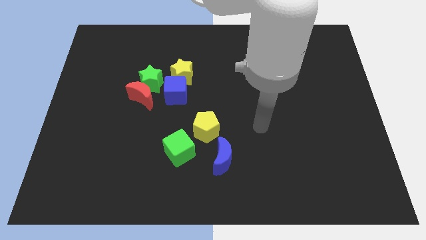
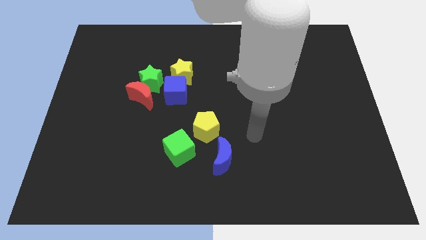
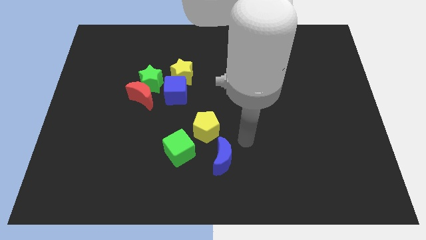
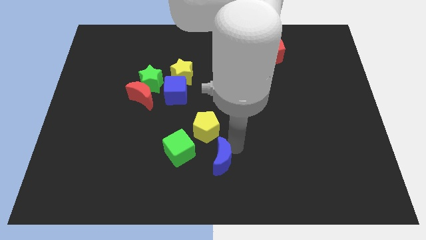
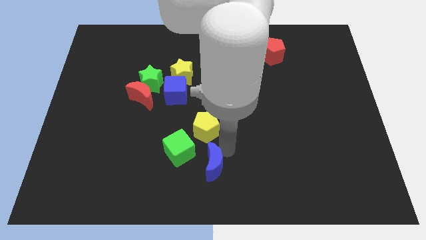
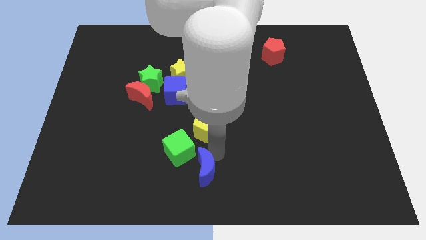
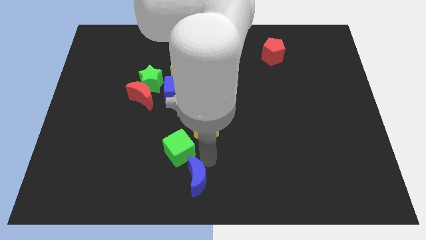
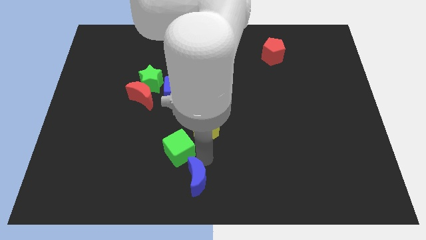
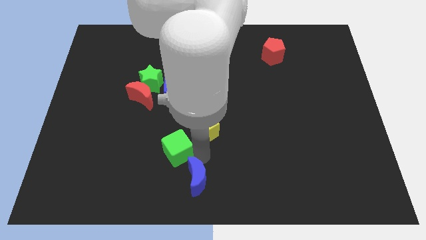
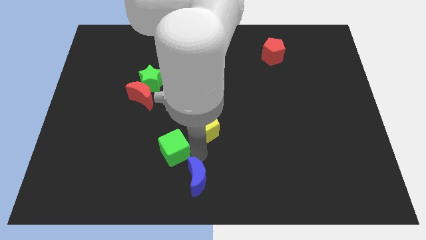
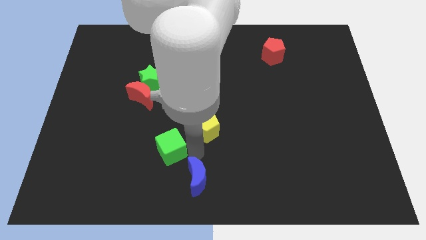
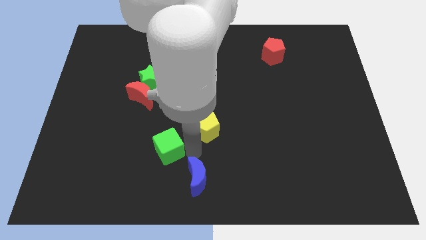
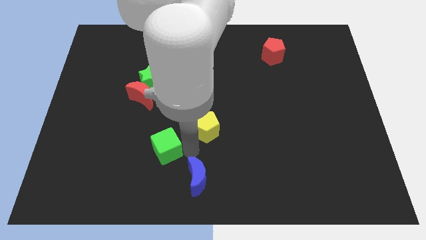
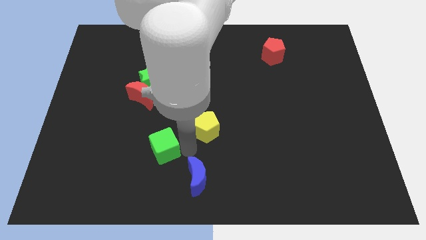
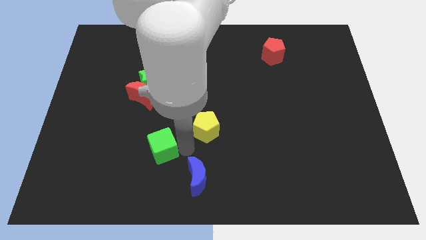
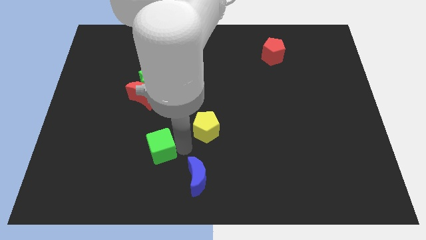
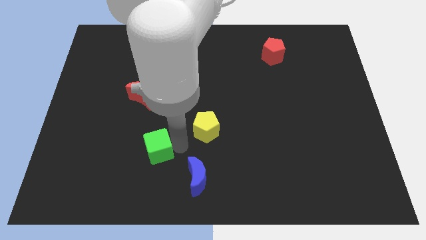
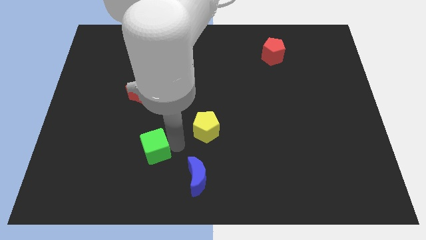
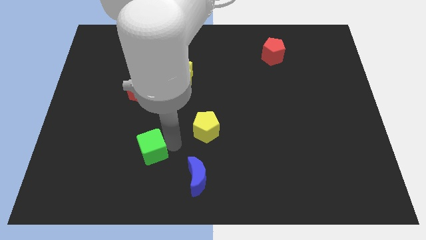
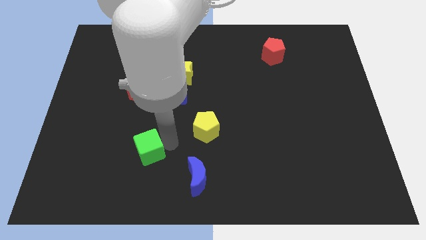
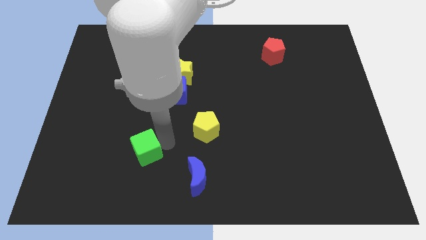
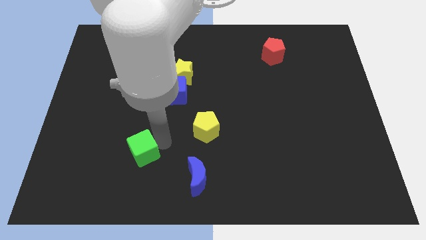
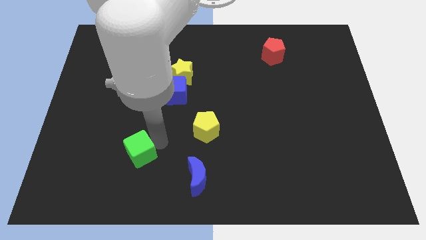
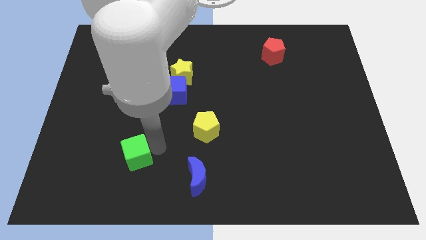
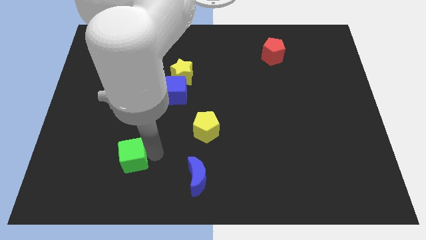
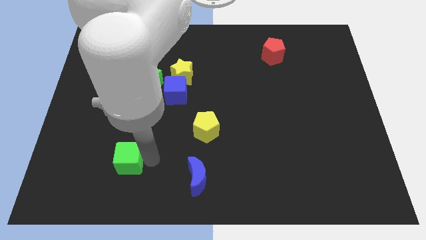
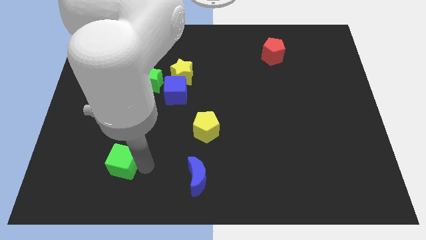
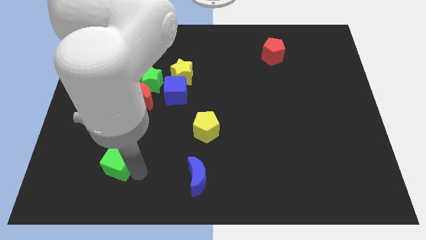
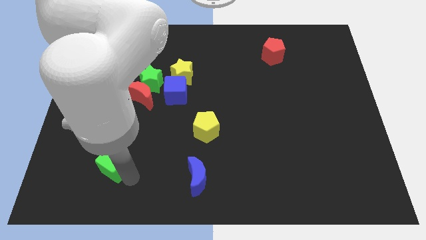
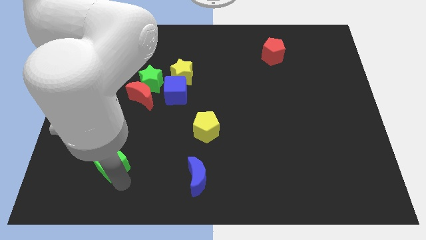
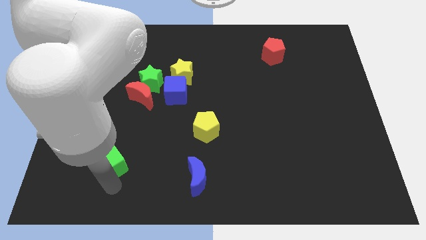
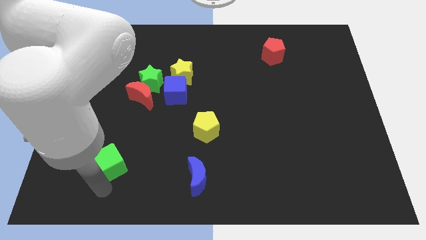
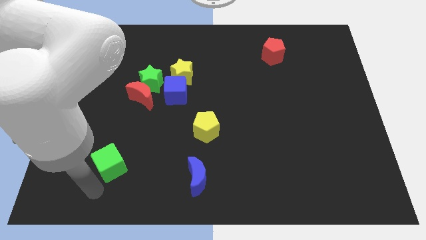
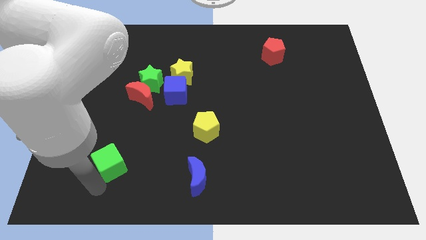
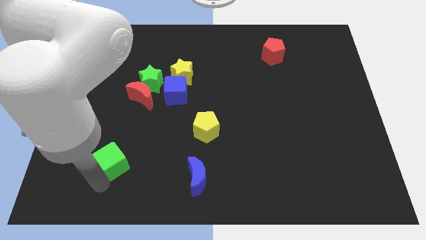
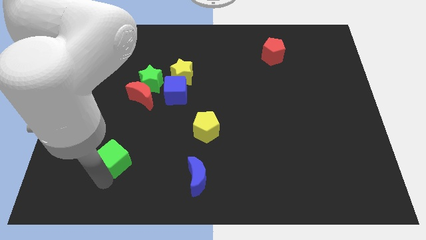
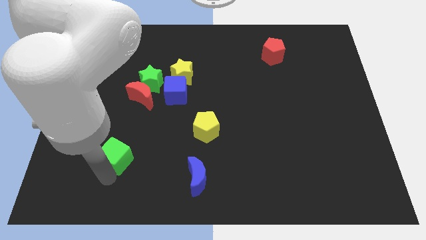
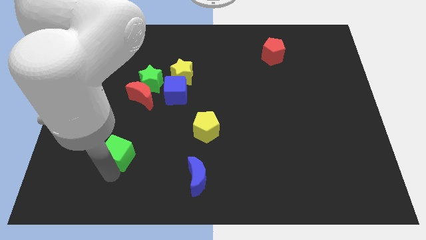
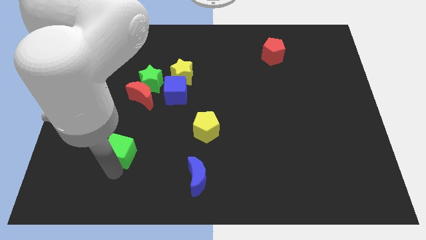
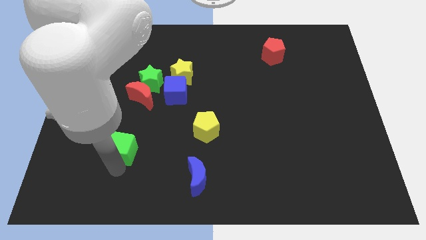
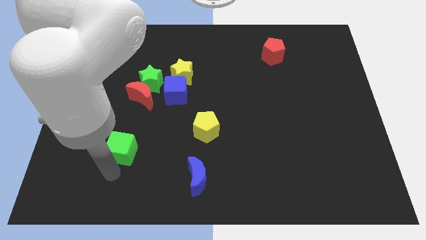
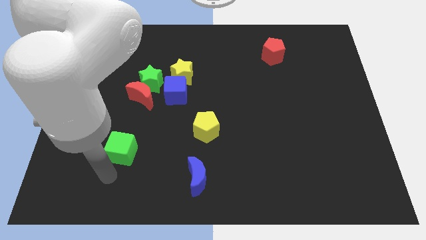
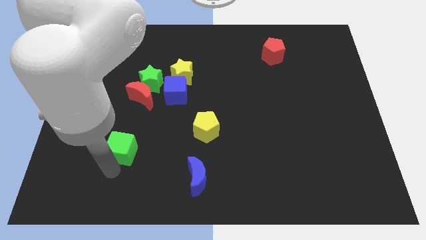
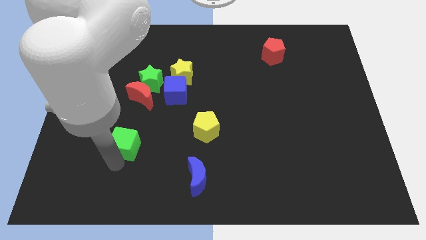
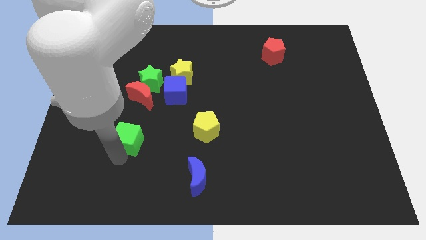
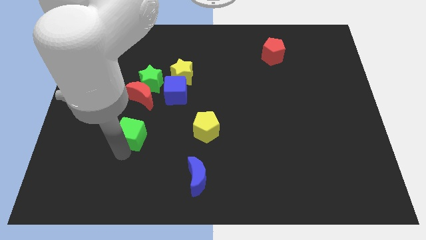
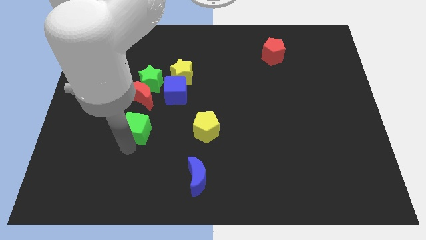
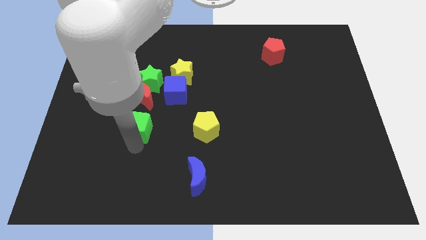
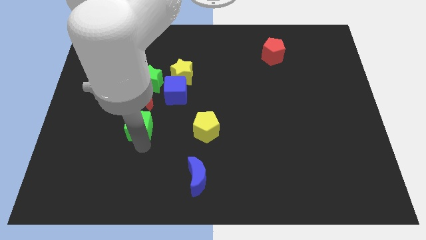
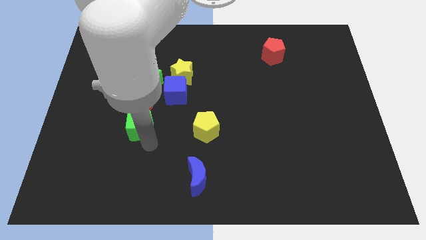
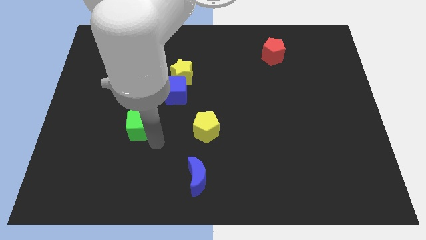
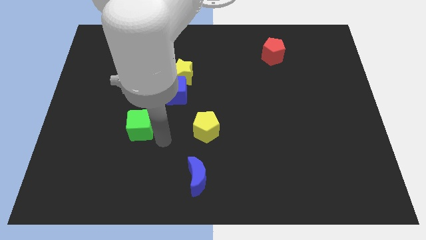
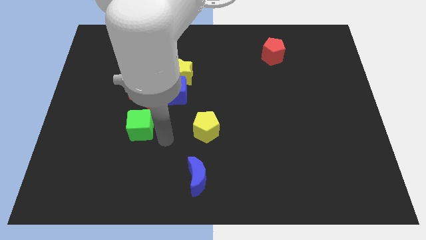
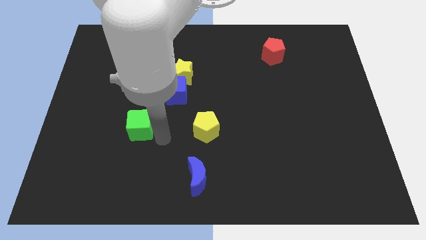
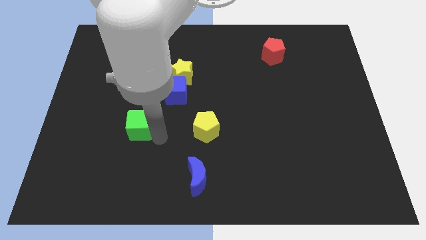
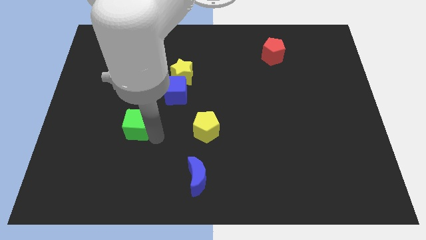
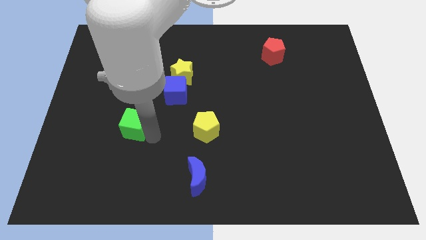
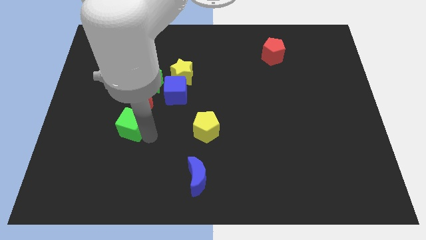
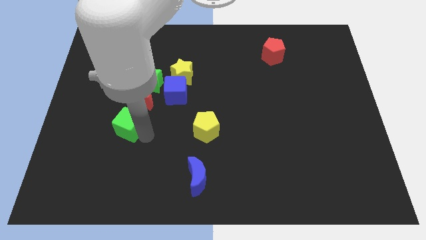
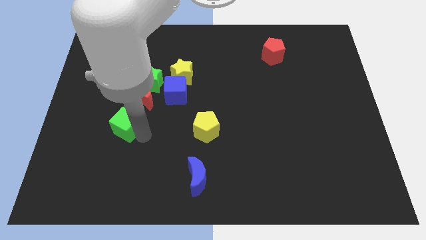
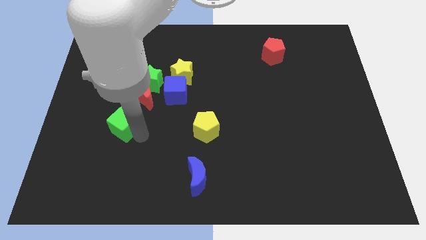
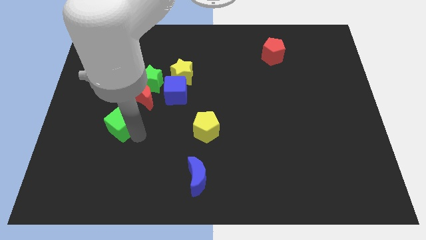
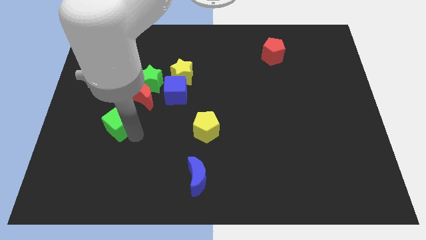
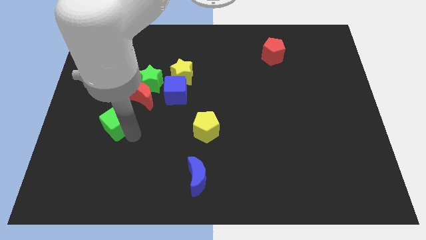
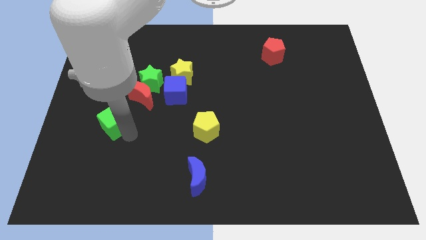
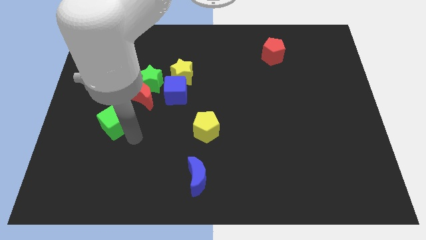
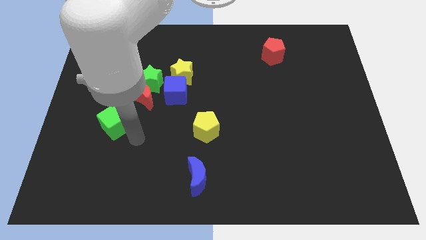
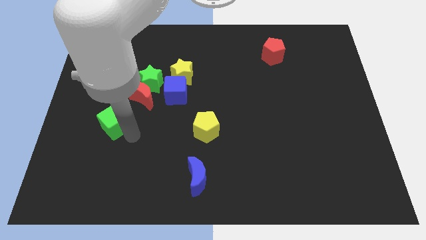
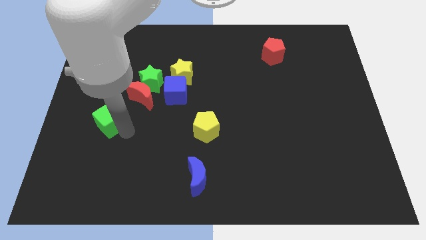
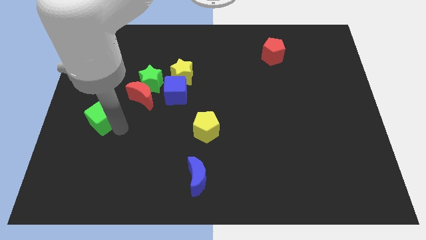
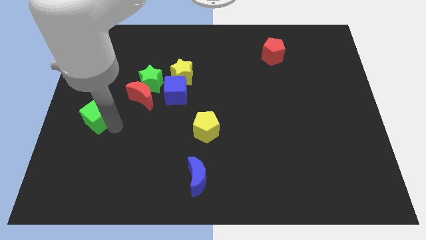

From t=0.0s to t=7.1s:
move the green cube to the left side of the board
